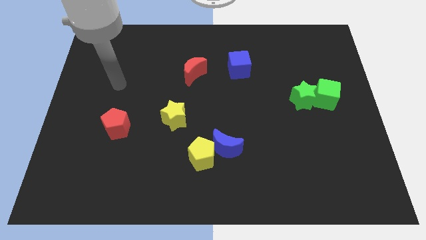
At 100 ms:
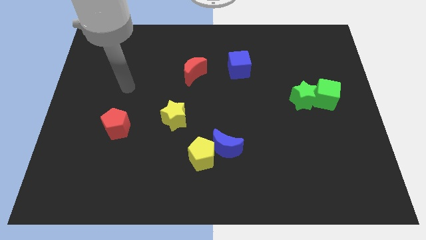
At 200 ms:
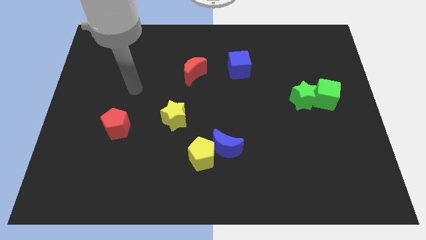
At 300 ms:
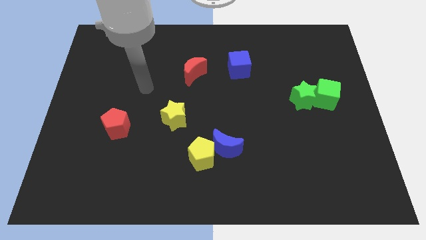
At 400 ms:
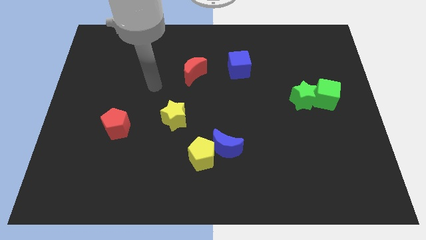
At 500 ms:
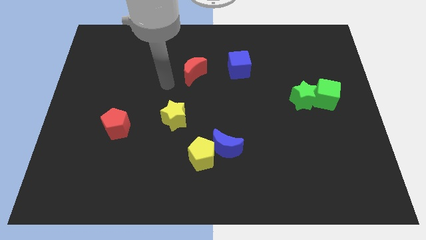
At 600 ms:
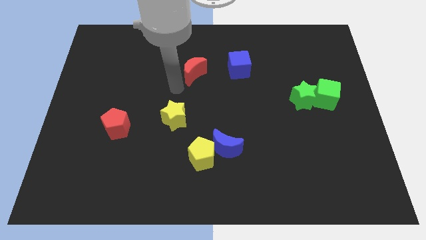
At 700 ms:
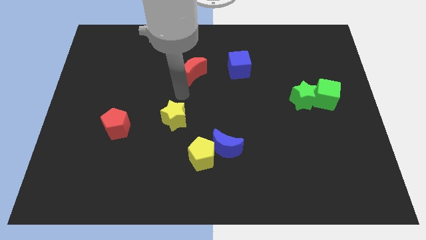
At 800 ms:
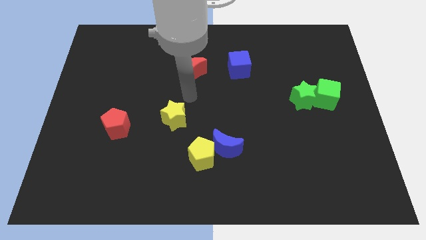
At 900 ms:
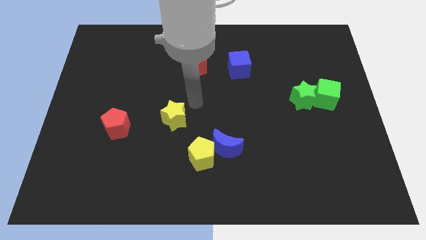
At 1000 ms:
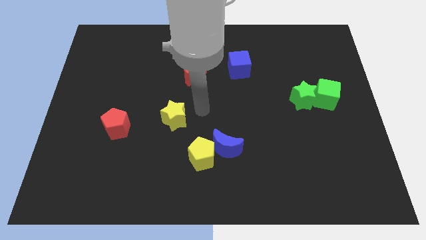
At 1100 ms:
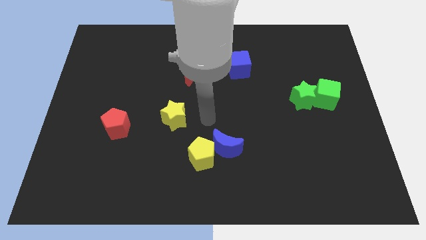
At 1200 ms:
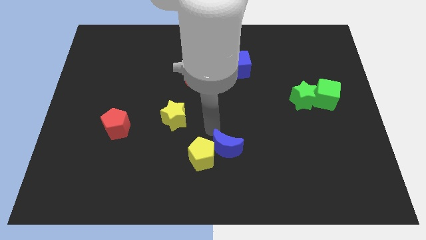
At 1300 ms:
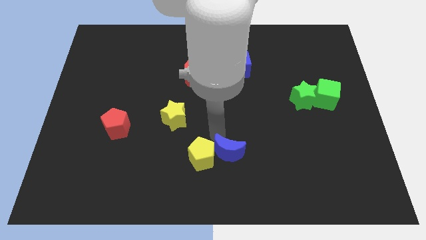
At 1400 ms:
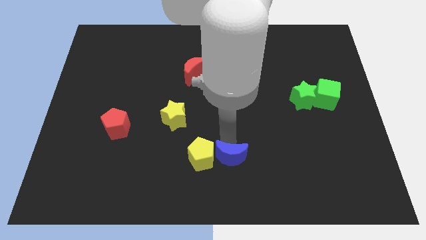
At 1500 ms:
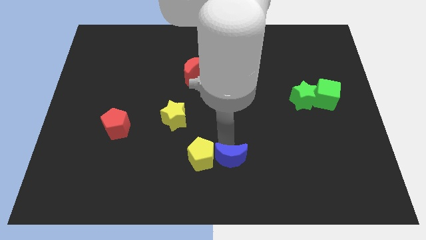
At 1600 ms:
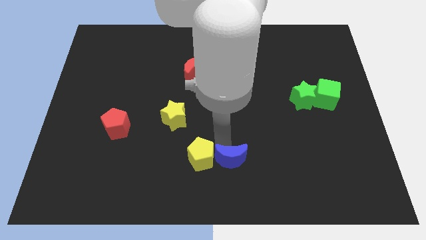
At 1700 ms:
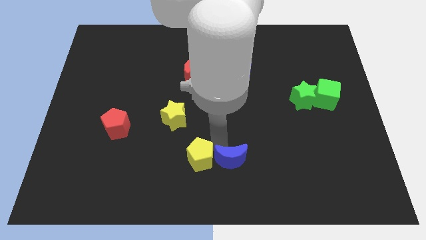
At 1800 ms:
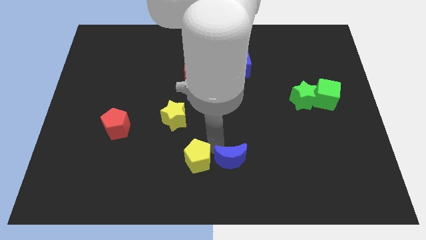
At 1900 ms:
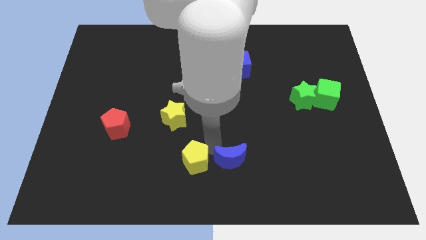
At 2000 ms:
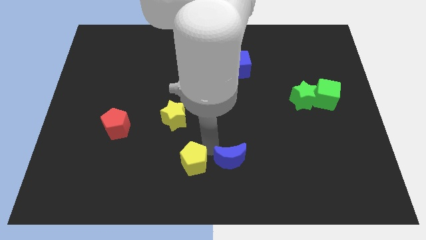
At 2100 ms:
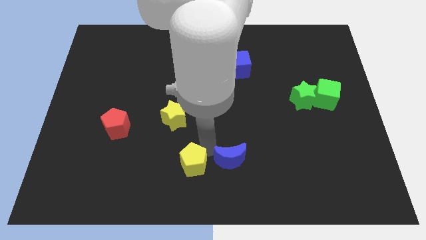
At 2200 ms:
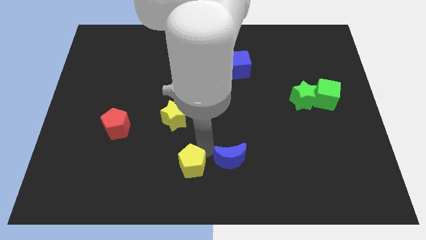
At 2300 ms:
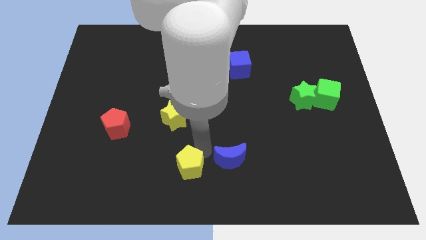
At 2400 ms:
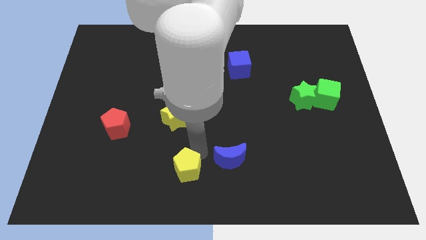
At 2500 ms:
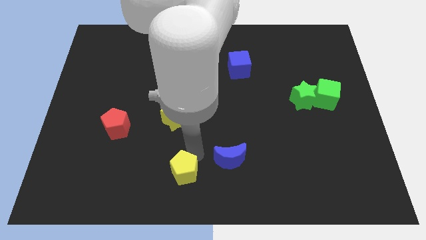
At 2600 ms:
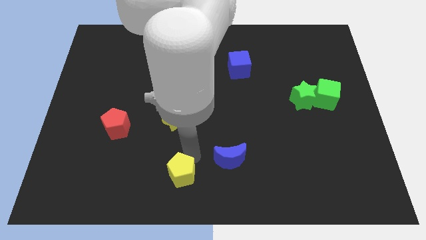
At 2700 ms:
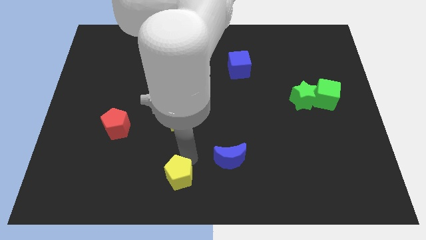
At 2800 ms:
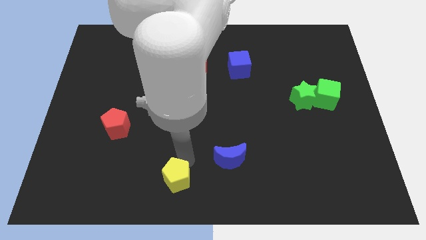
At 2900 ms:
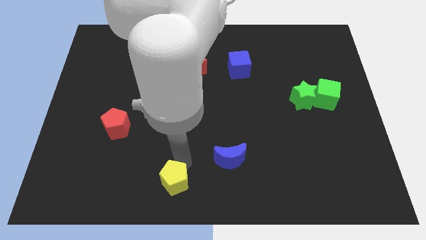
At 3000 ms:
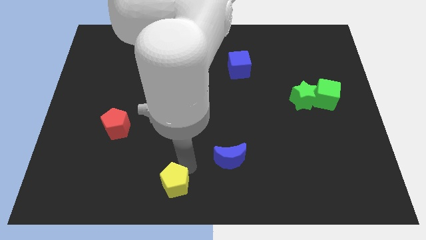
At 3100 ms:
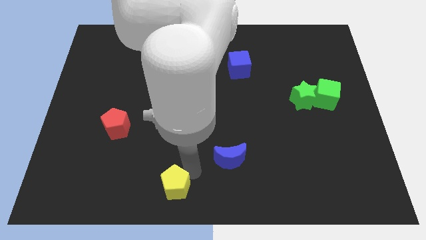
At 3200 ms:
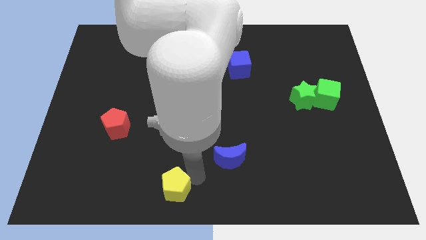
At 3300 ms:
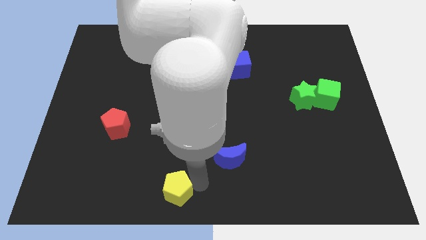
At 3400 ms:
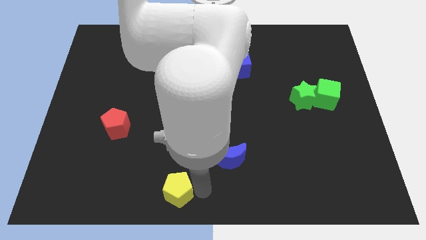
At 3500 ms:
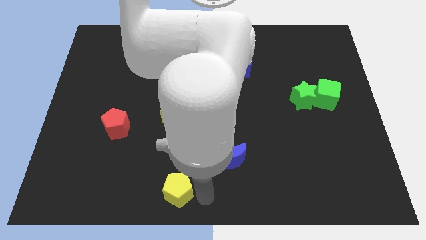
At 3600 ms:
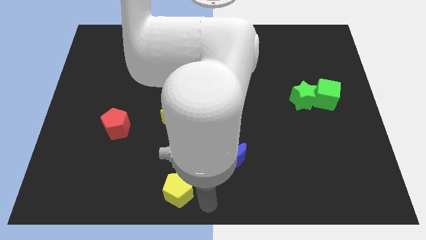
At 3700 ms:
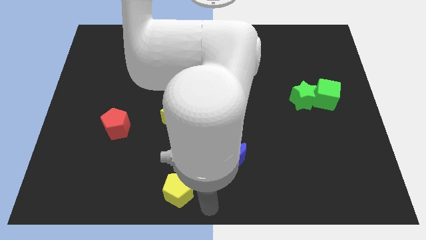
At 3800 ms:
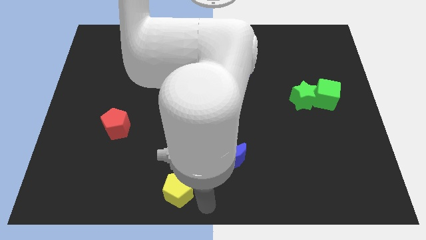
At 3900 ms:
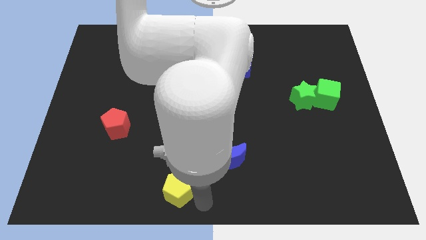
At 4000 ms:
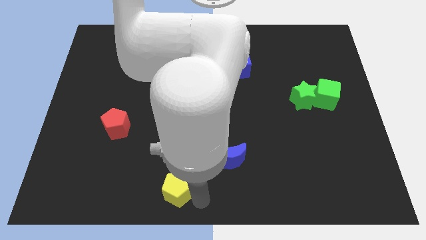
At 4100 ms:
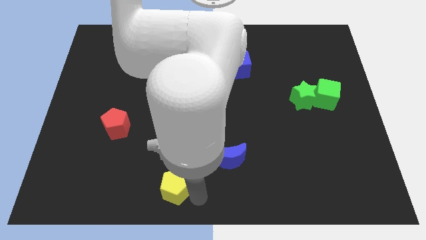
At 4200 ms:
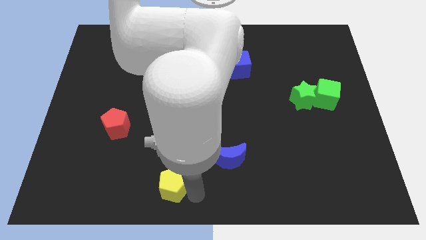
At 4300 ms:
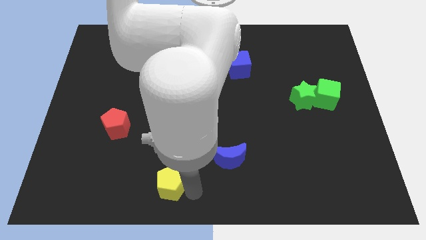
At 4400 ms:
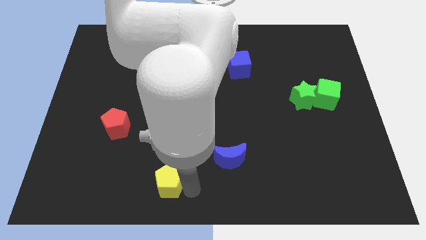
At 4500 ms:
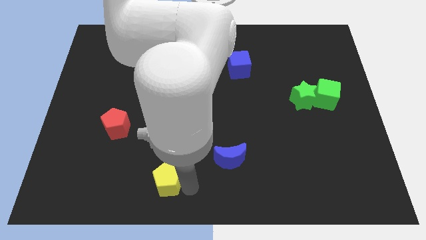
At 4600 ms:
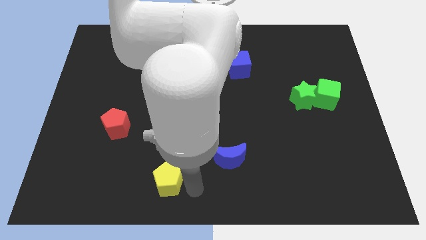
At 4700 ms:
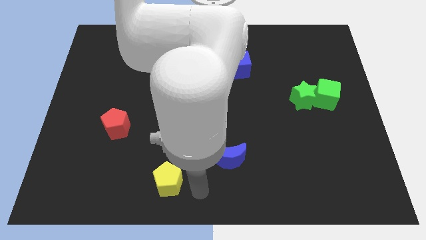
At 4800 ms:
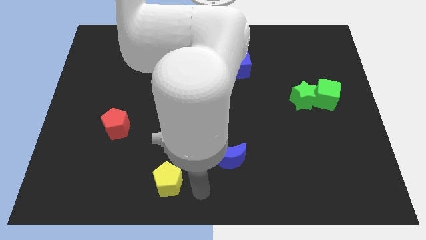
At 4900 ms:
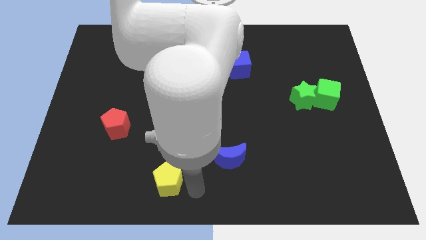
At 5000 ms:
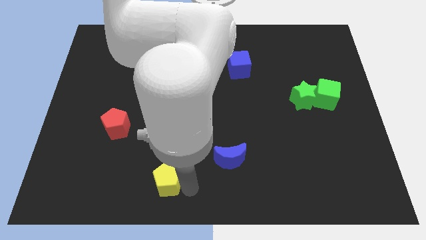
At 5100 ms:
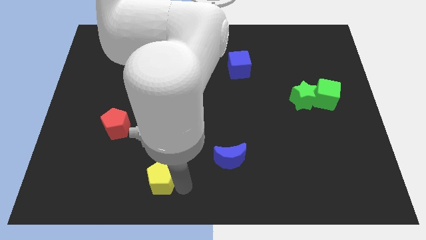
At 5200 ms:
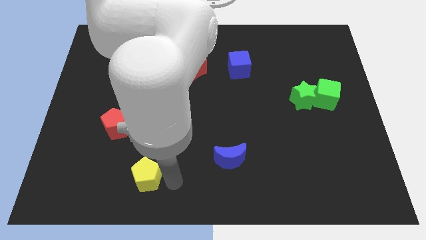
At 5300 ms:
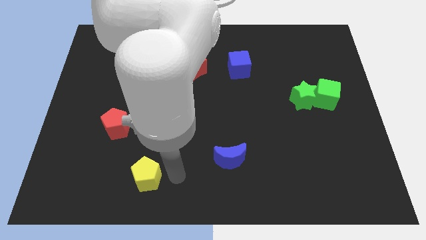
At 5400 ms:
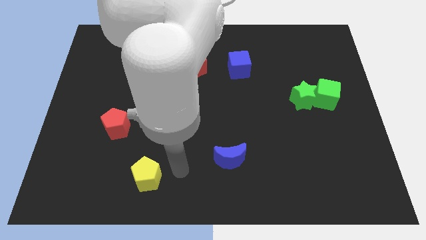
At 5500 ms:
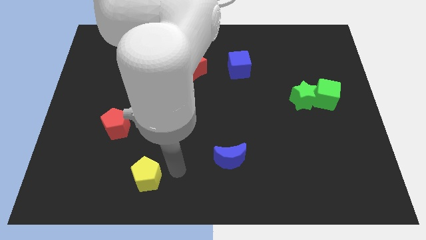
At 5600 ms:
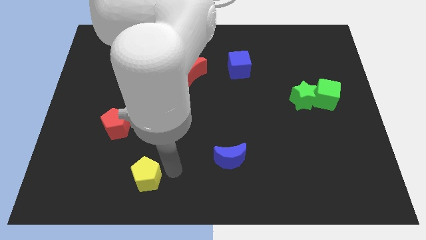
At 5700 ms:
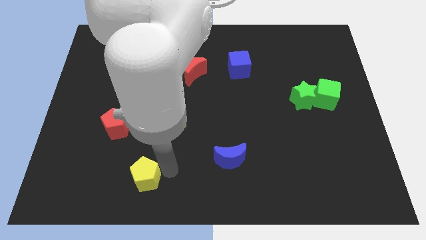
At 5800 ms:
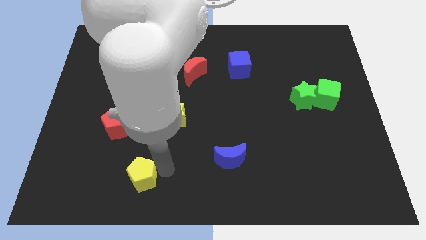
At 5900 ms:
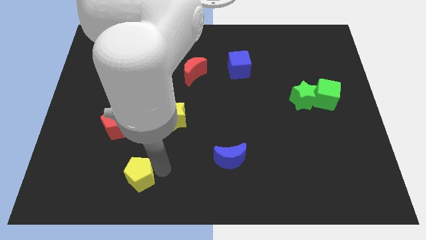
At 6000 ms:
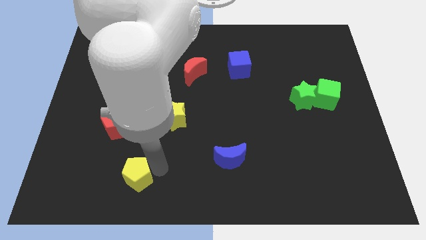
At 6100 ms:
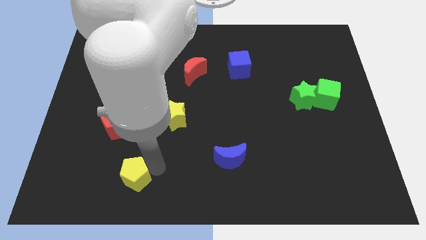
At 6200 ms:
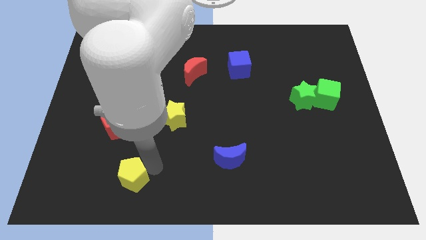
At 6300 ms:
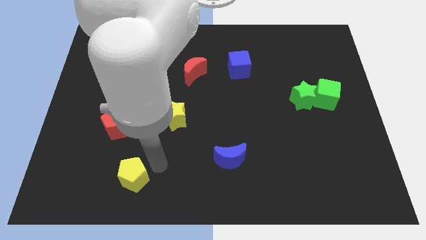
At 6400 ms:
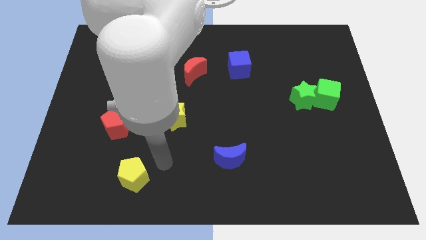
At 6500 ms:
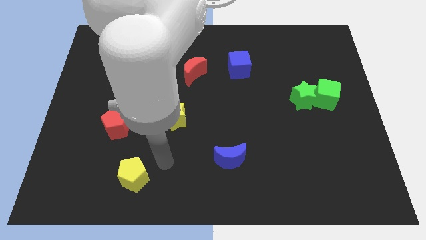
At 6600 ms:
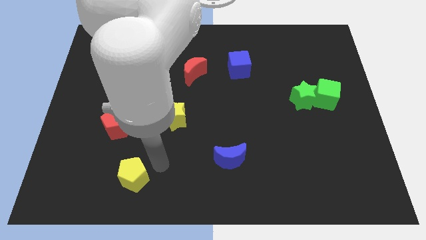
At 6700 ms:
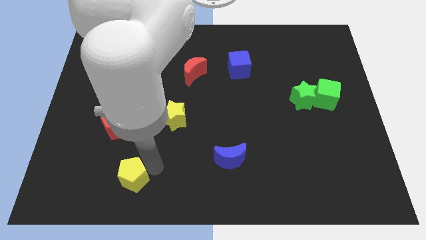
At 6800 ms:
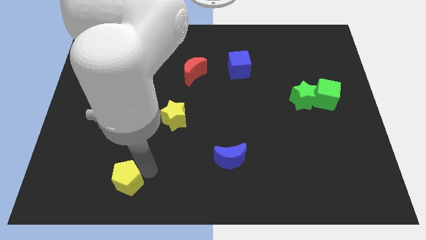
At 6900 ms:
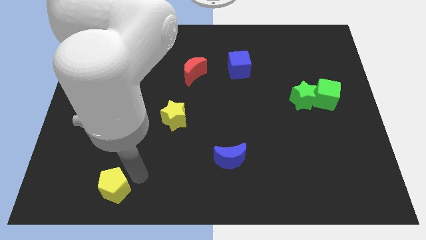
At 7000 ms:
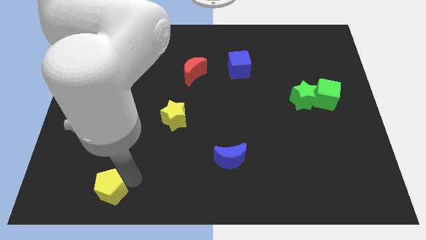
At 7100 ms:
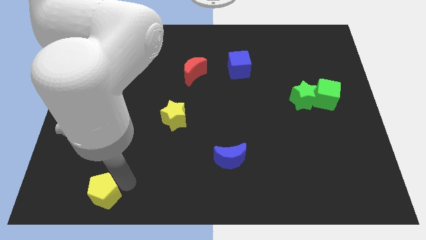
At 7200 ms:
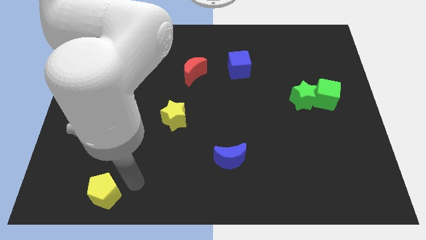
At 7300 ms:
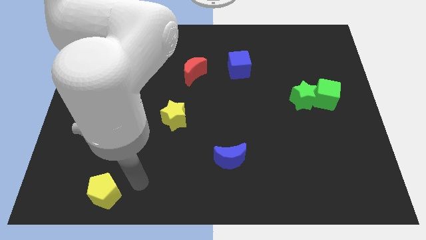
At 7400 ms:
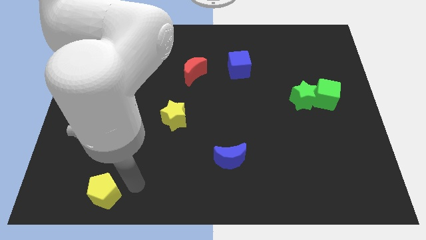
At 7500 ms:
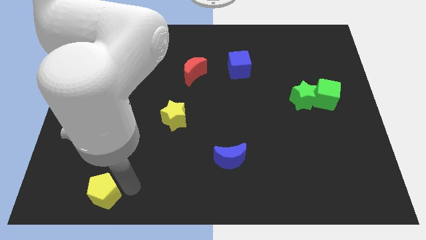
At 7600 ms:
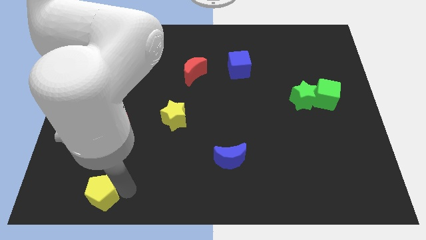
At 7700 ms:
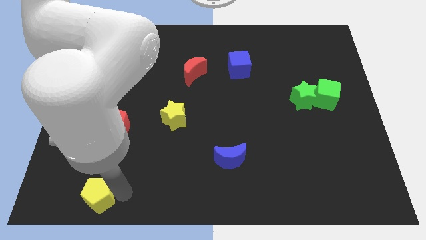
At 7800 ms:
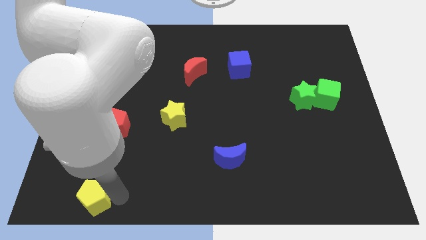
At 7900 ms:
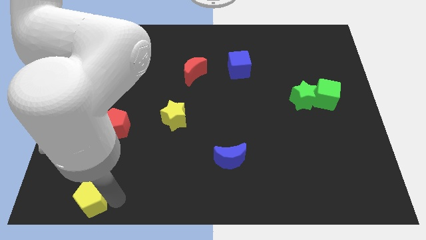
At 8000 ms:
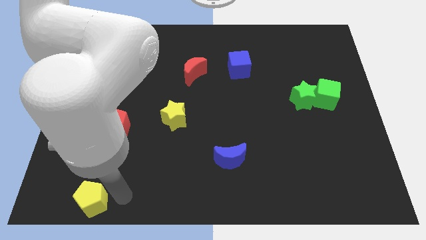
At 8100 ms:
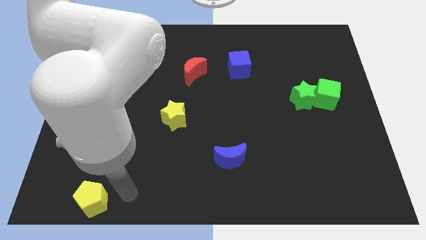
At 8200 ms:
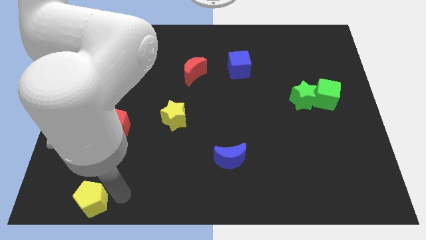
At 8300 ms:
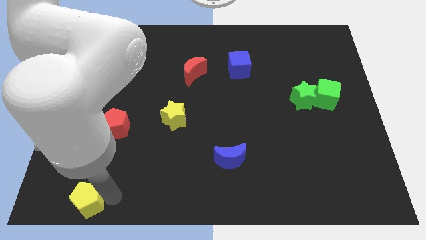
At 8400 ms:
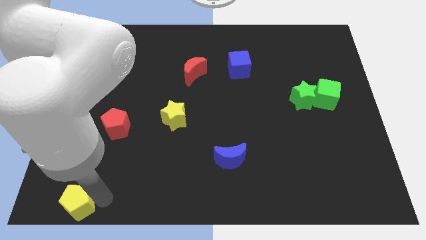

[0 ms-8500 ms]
move the yellow pentagon to the bottom left
